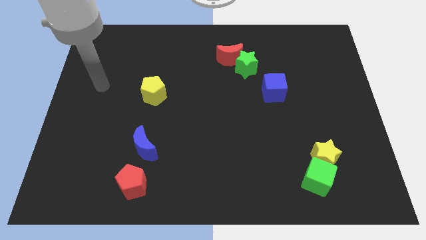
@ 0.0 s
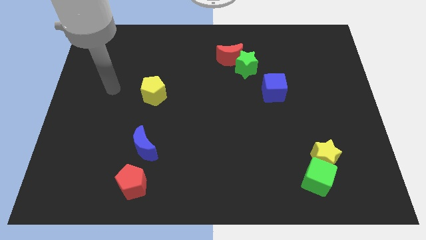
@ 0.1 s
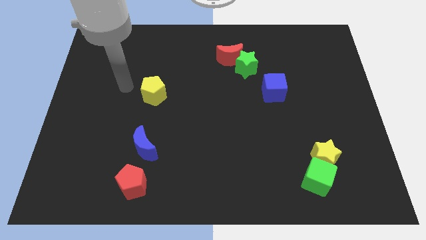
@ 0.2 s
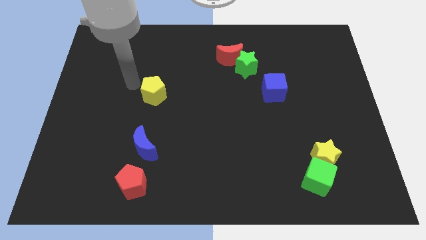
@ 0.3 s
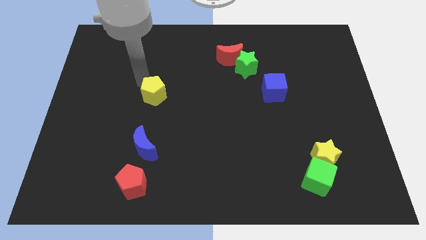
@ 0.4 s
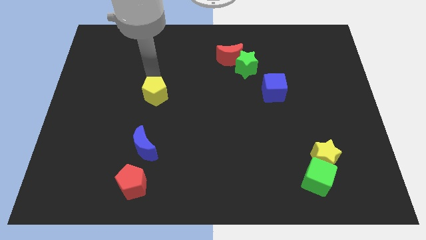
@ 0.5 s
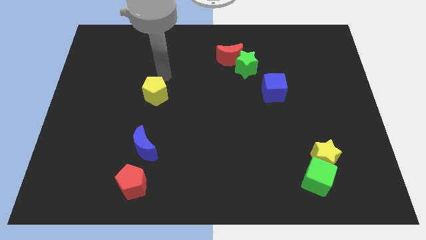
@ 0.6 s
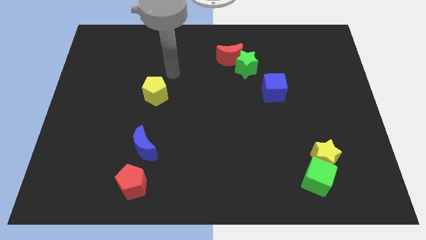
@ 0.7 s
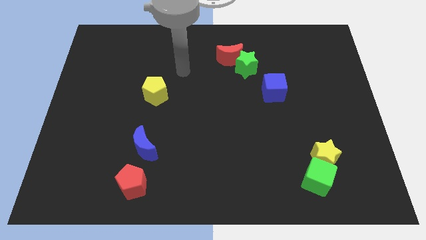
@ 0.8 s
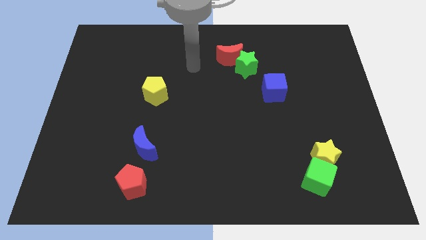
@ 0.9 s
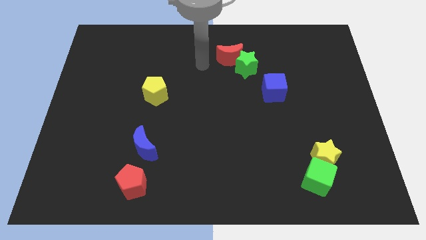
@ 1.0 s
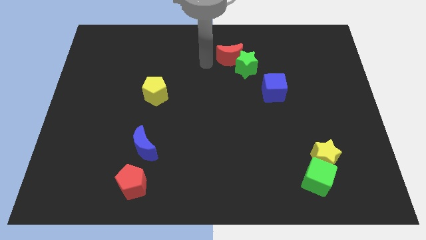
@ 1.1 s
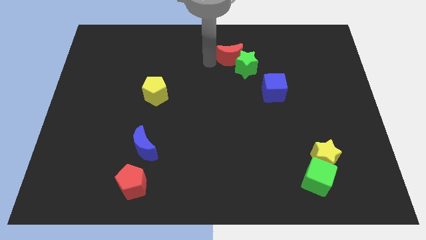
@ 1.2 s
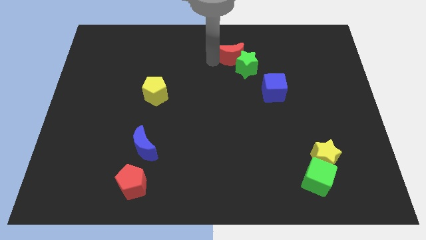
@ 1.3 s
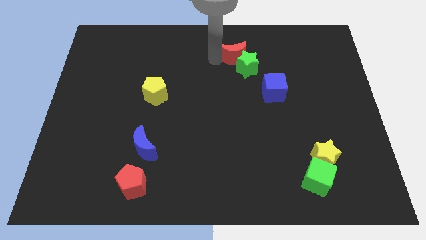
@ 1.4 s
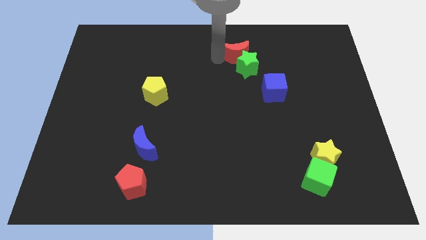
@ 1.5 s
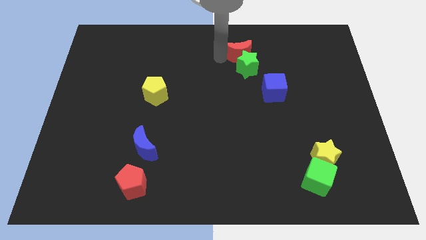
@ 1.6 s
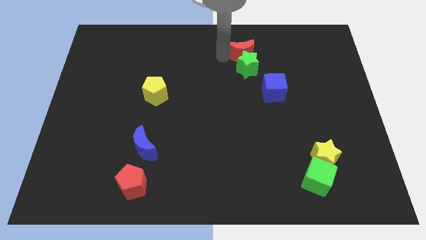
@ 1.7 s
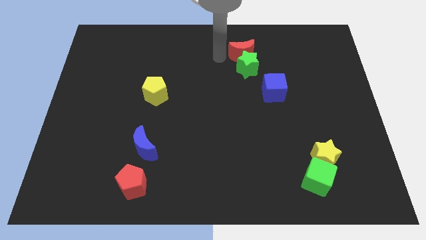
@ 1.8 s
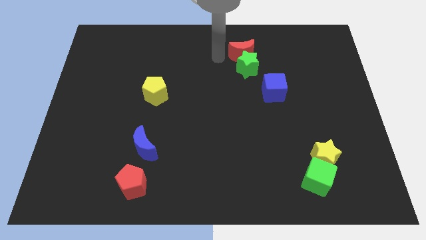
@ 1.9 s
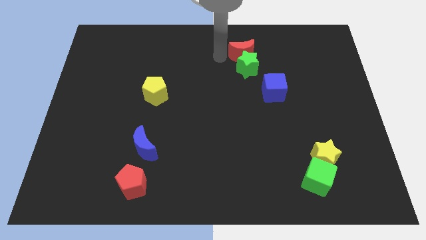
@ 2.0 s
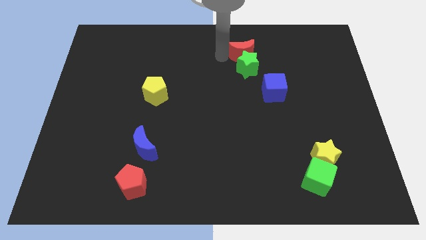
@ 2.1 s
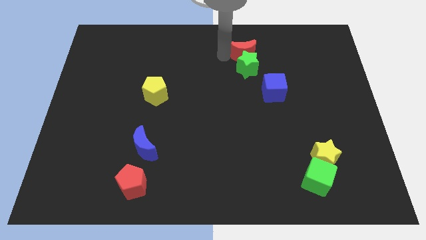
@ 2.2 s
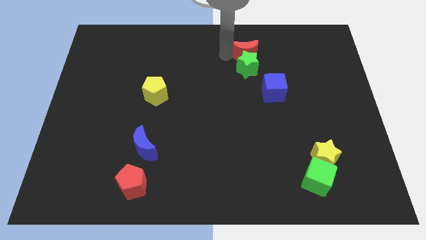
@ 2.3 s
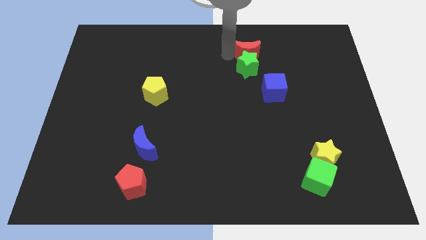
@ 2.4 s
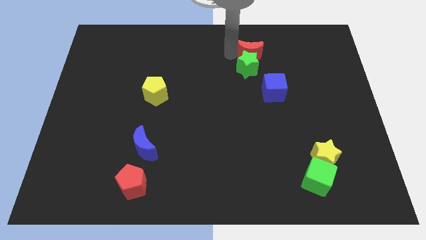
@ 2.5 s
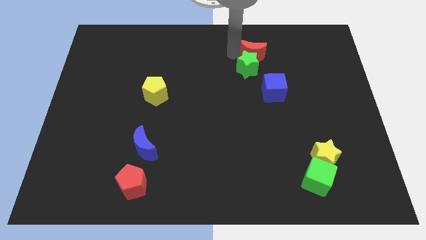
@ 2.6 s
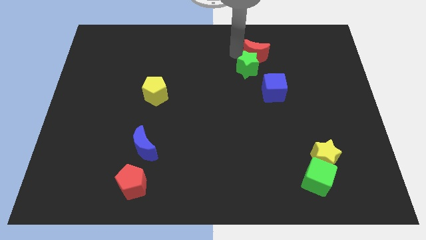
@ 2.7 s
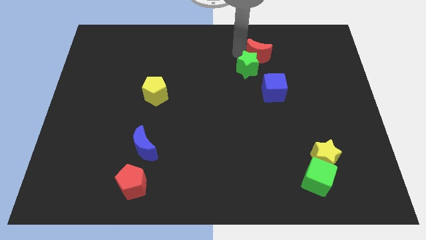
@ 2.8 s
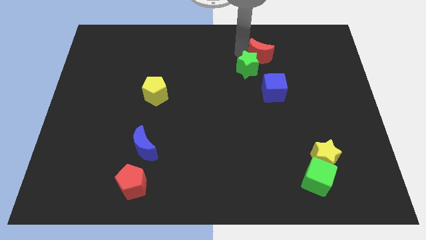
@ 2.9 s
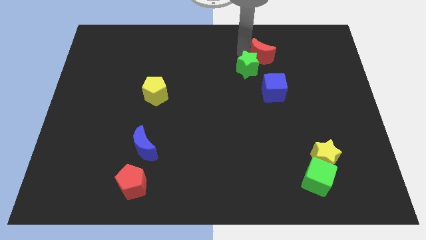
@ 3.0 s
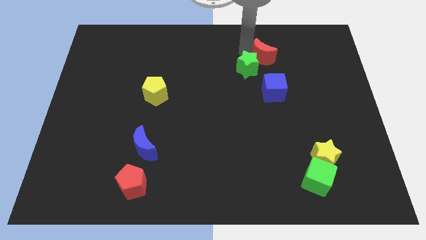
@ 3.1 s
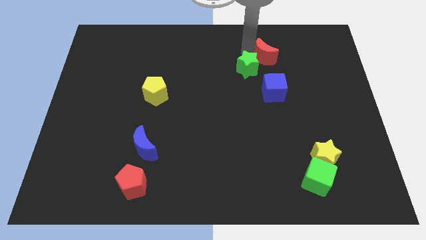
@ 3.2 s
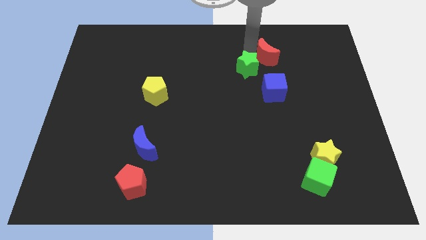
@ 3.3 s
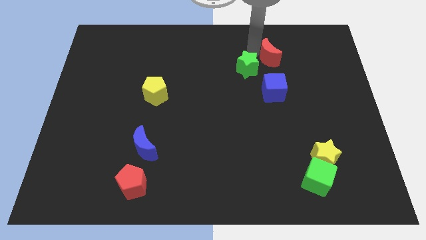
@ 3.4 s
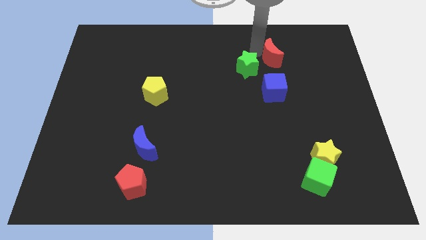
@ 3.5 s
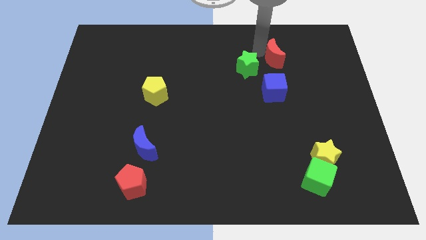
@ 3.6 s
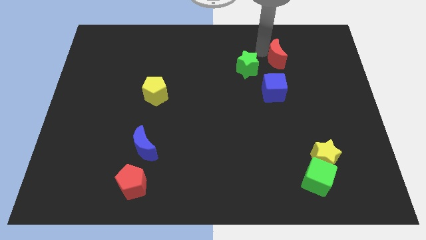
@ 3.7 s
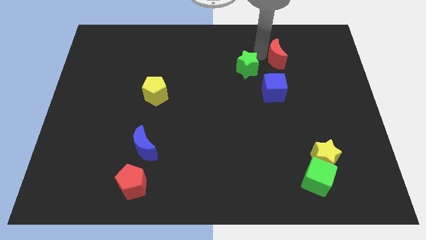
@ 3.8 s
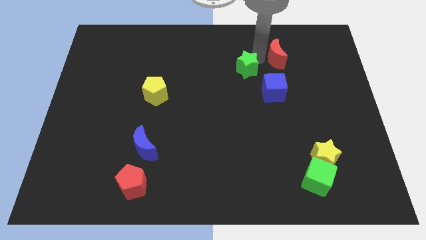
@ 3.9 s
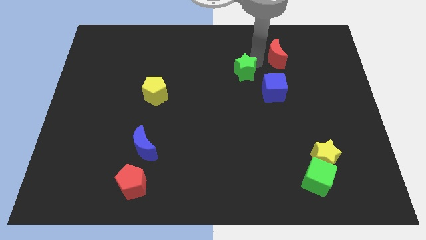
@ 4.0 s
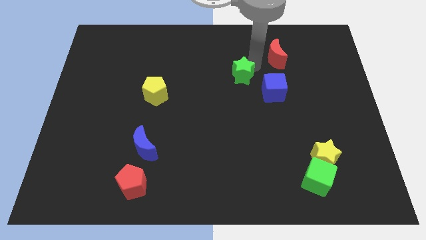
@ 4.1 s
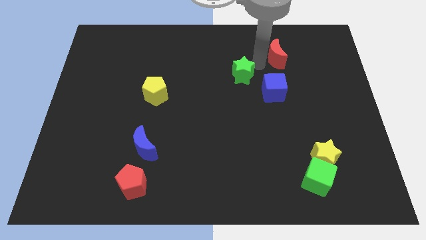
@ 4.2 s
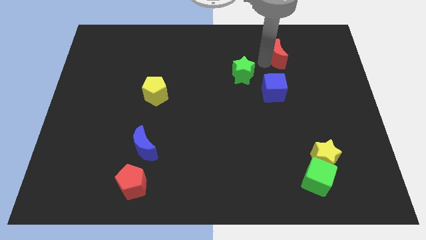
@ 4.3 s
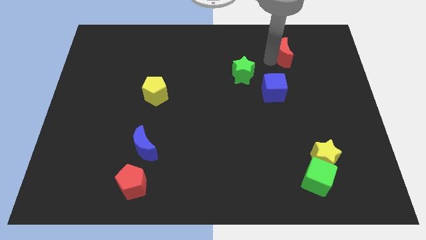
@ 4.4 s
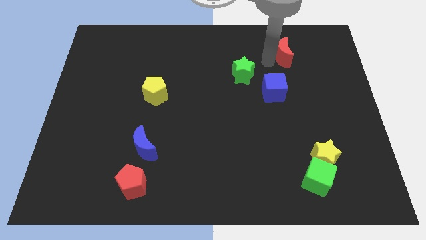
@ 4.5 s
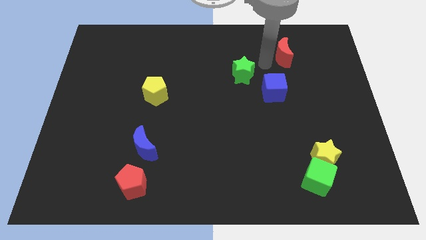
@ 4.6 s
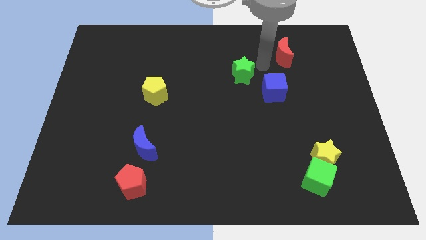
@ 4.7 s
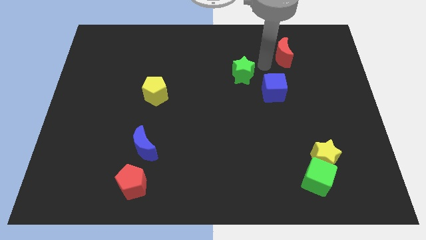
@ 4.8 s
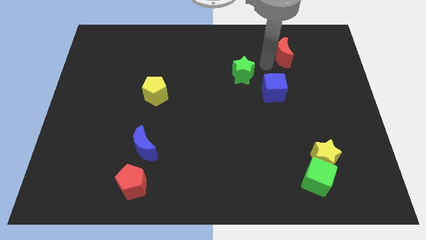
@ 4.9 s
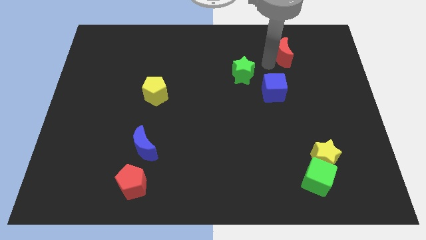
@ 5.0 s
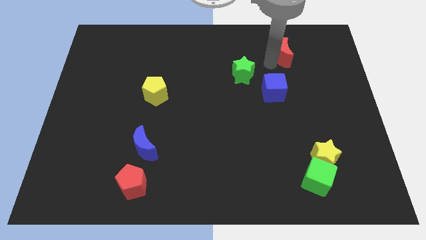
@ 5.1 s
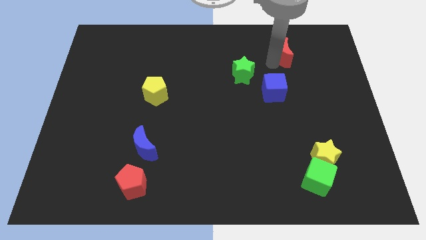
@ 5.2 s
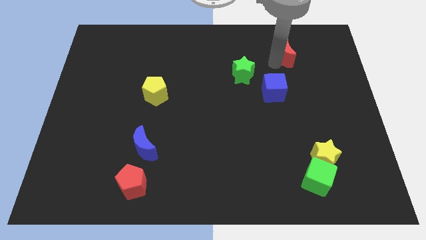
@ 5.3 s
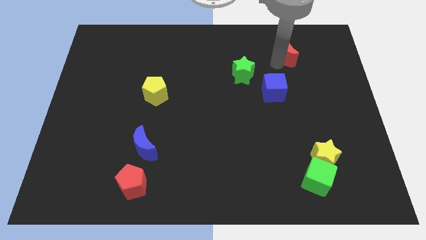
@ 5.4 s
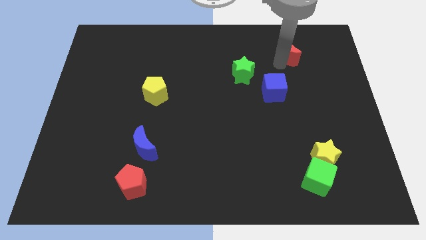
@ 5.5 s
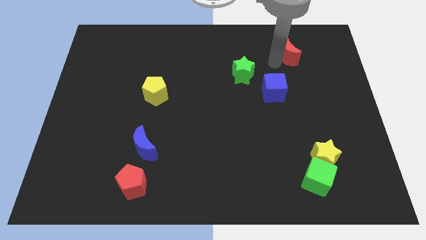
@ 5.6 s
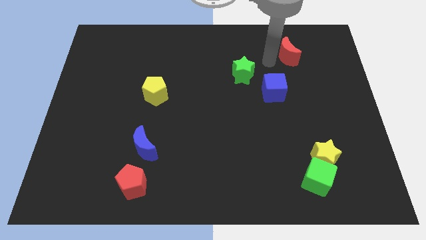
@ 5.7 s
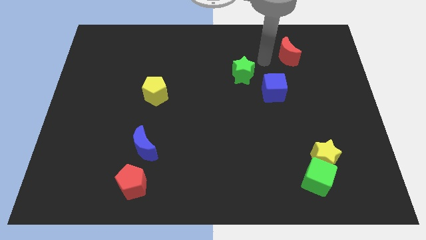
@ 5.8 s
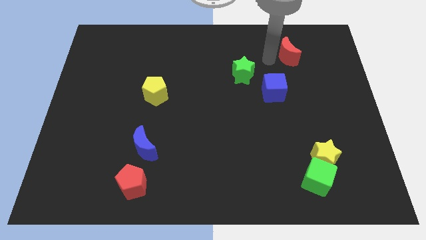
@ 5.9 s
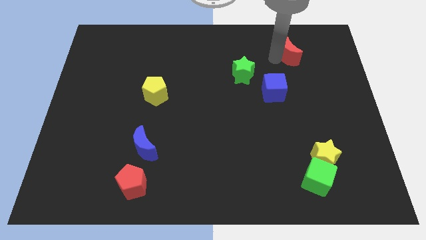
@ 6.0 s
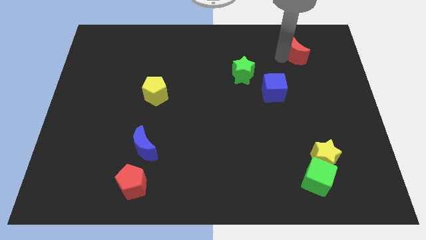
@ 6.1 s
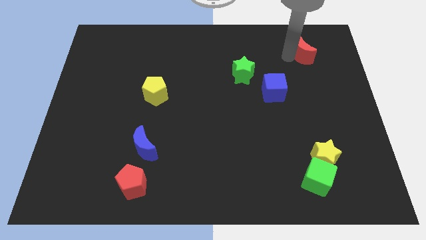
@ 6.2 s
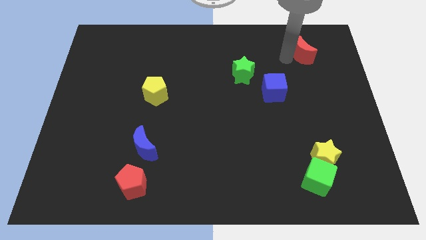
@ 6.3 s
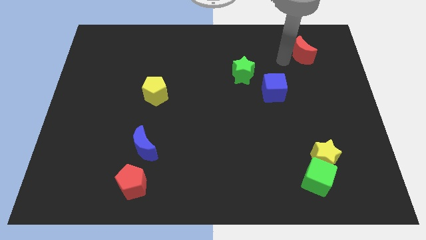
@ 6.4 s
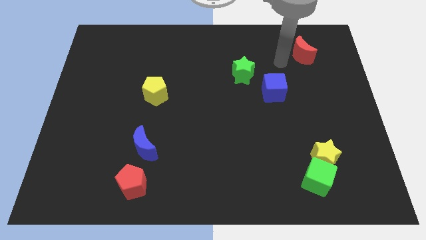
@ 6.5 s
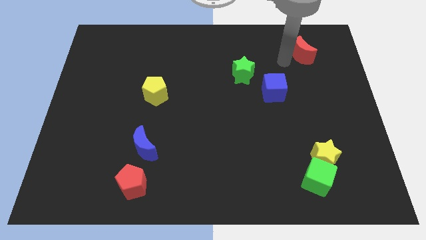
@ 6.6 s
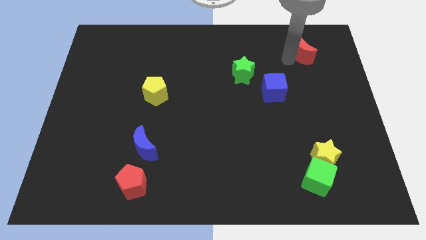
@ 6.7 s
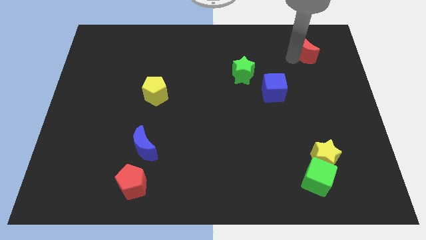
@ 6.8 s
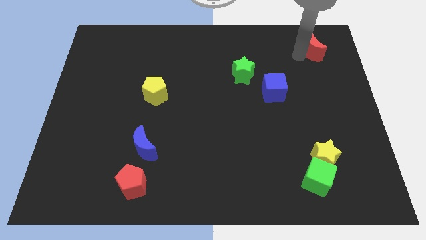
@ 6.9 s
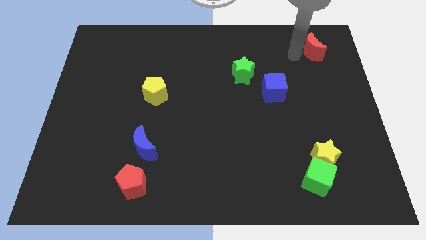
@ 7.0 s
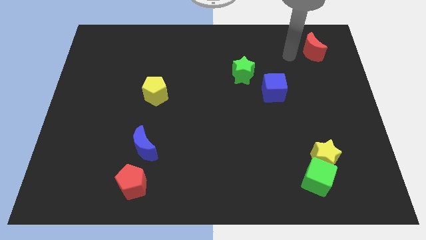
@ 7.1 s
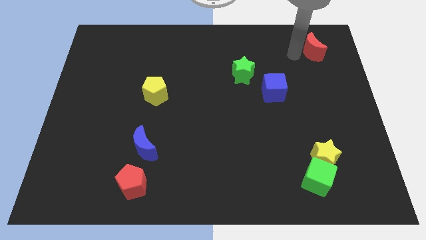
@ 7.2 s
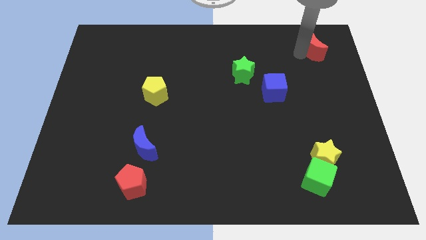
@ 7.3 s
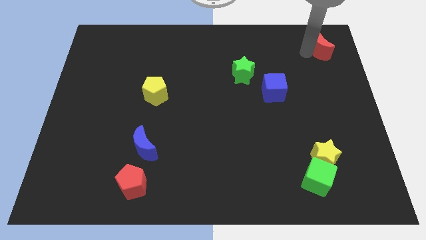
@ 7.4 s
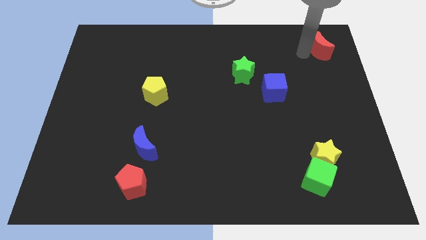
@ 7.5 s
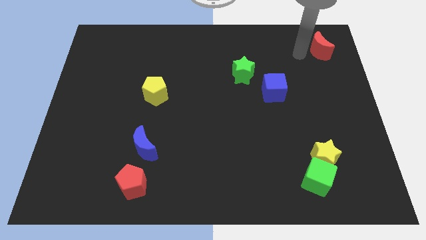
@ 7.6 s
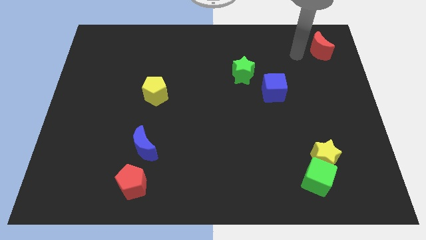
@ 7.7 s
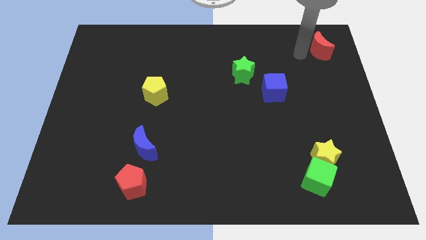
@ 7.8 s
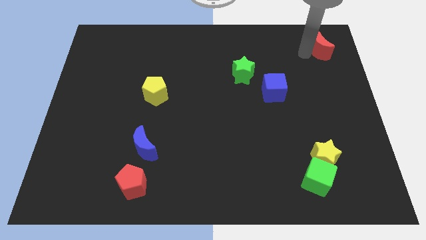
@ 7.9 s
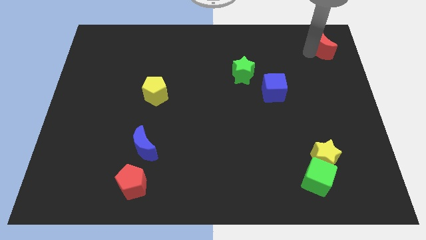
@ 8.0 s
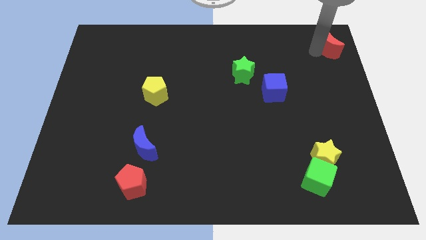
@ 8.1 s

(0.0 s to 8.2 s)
slide the red moon to the top right corner
